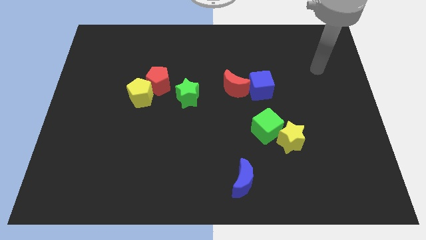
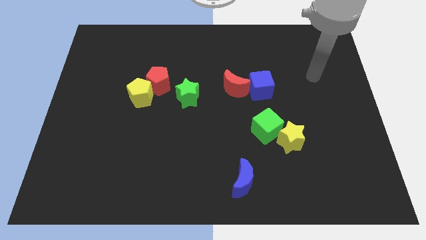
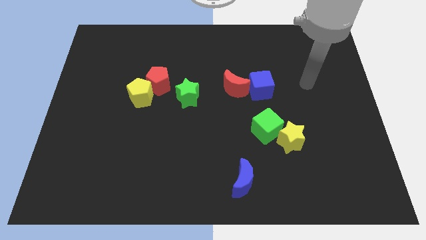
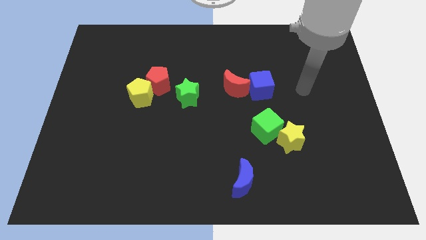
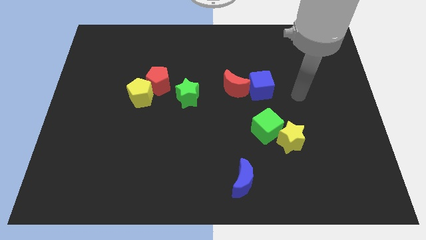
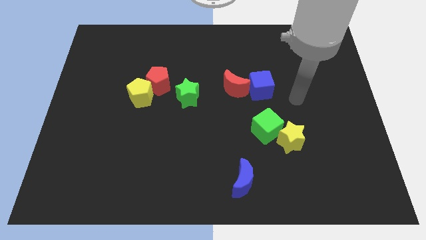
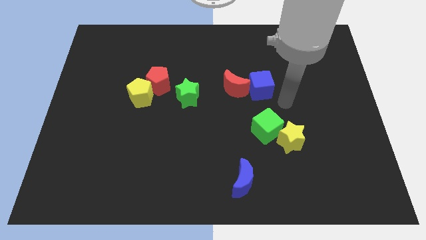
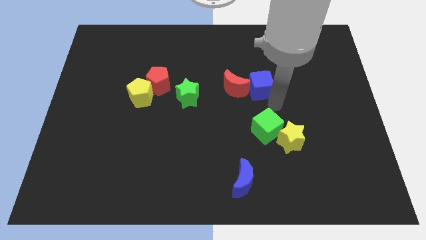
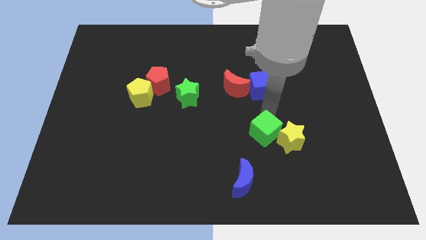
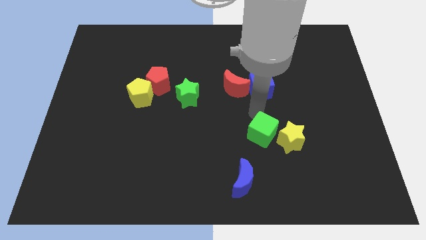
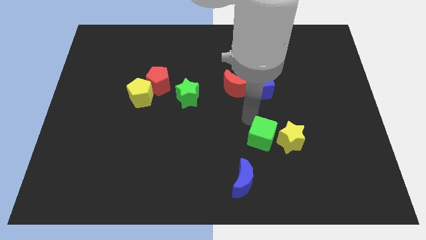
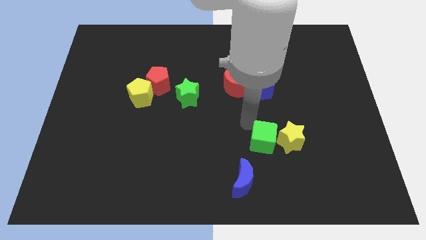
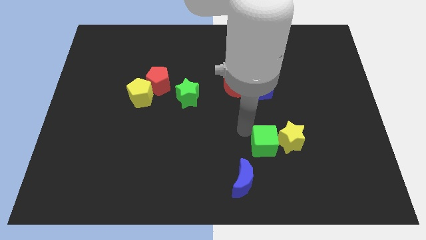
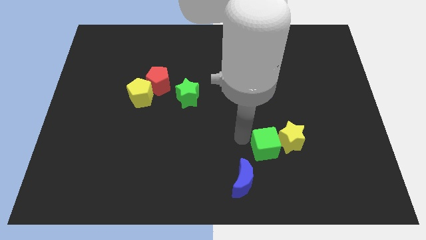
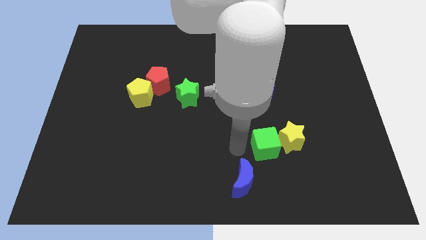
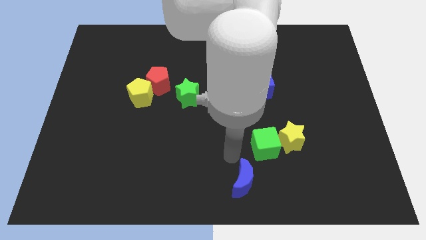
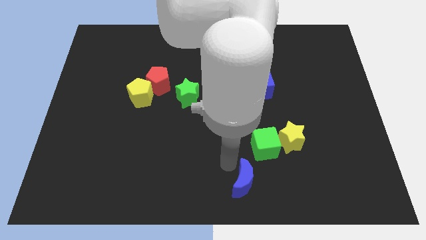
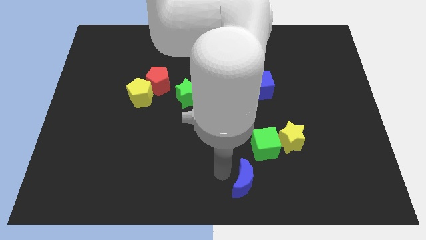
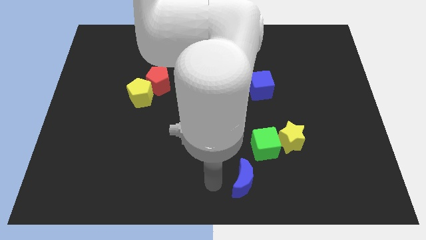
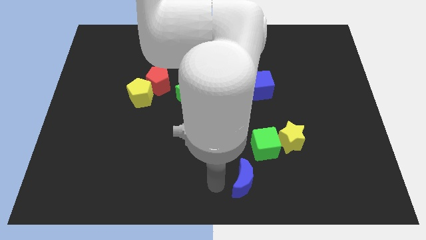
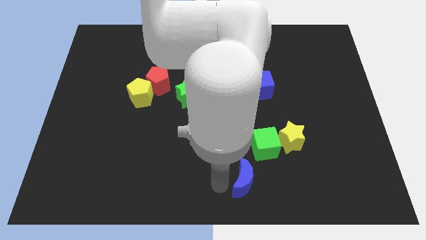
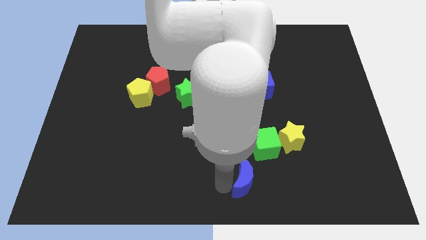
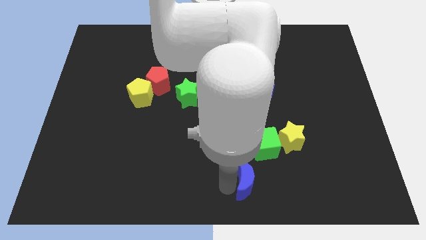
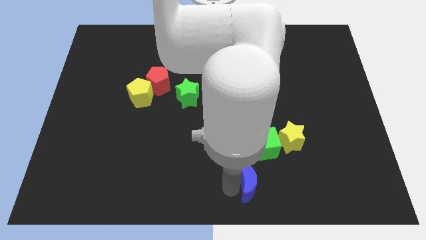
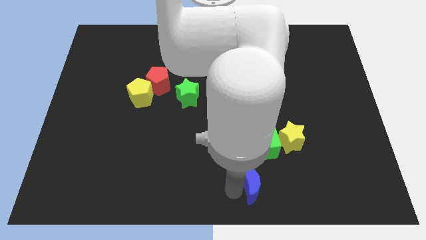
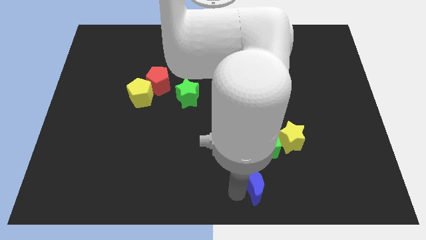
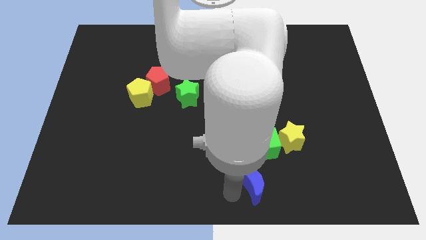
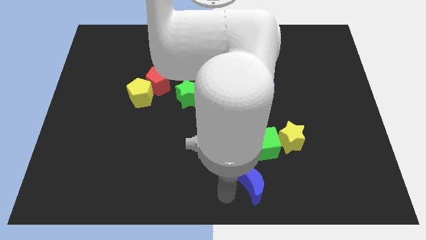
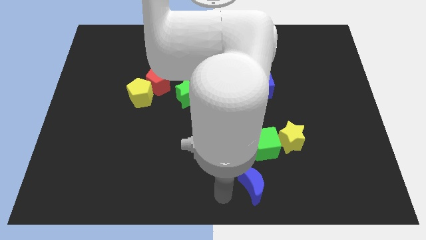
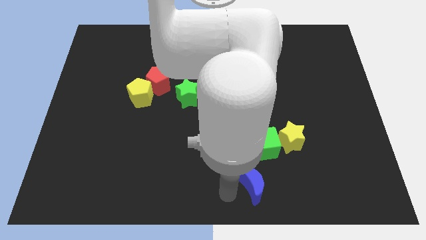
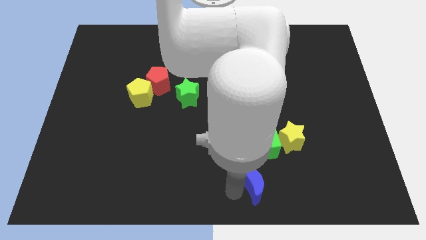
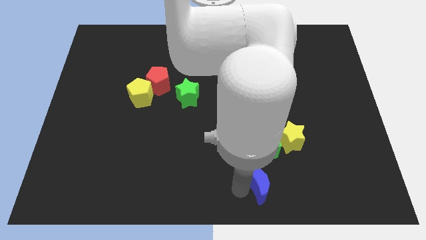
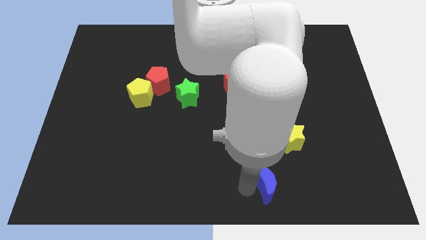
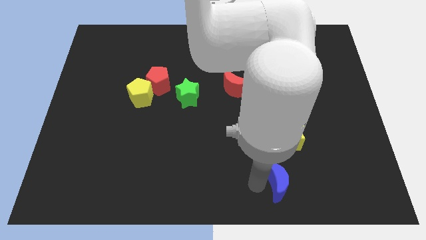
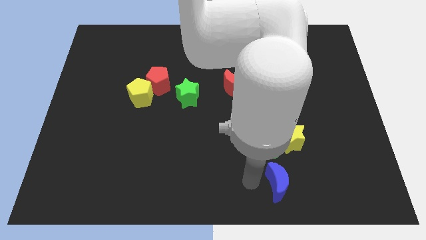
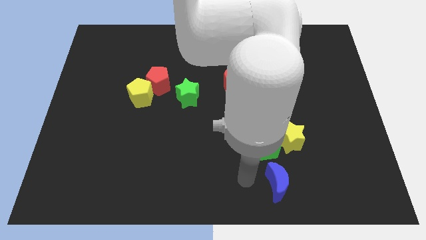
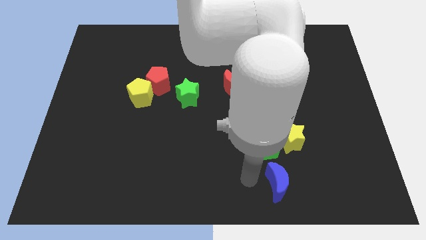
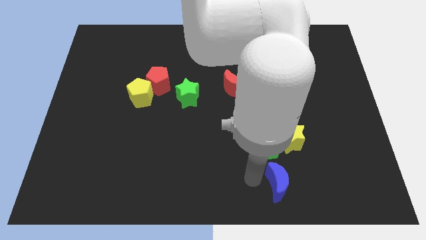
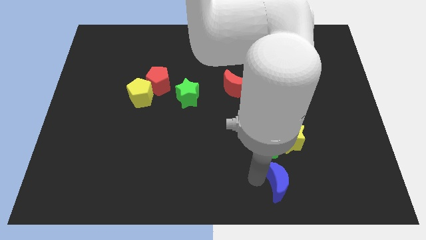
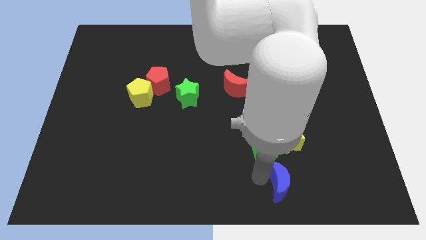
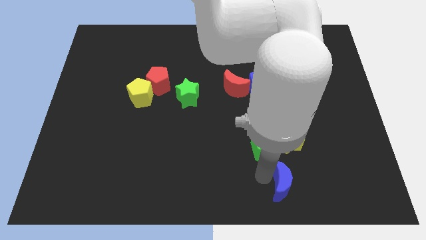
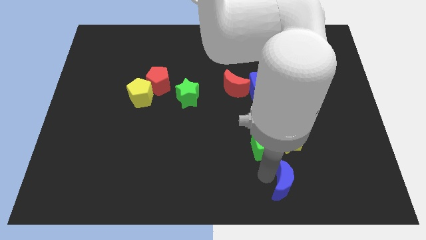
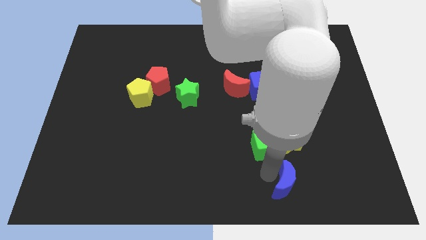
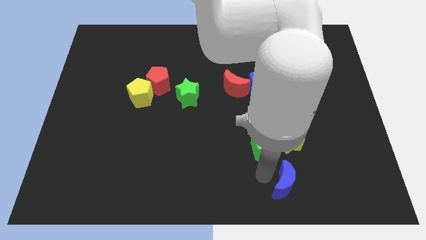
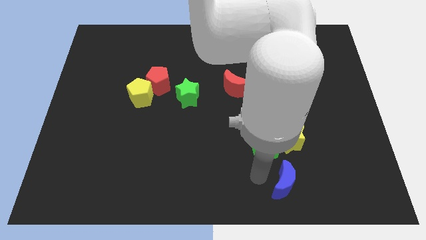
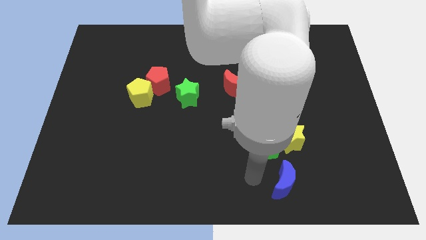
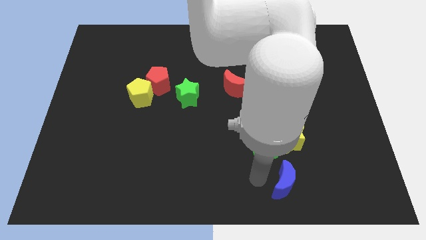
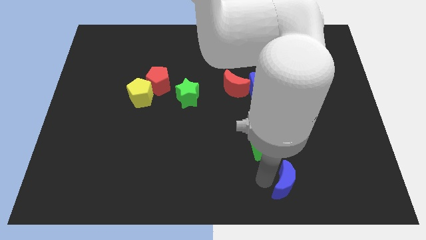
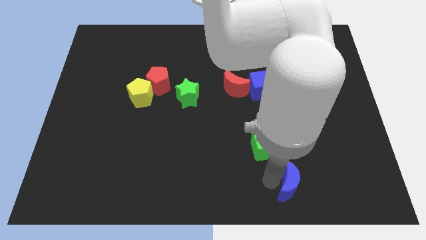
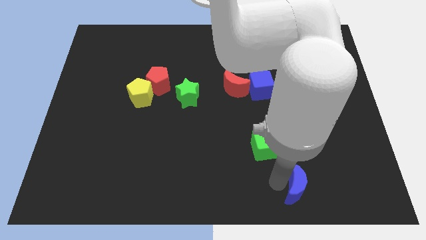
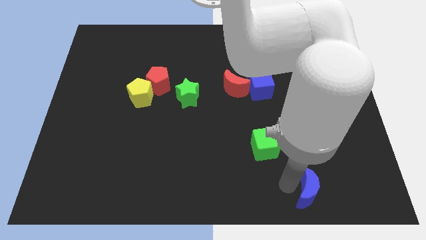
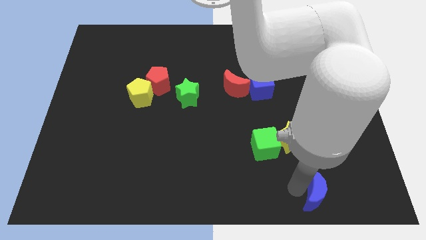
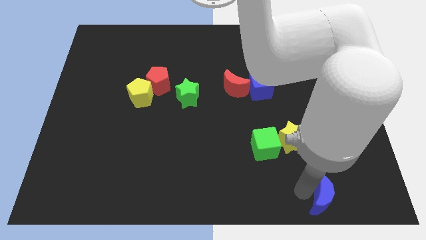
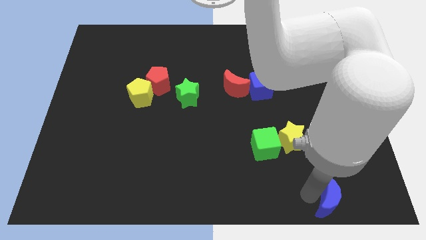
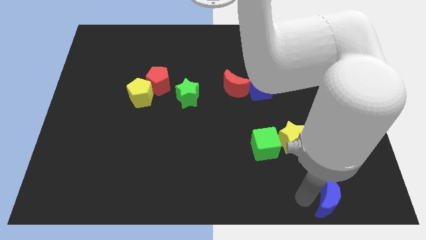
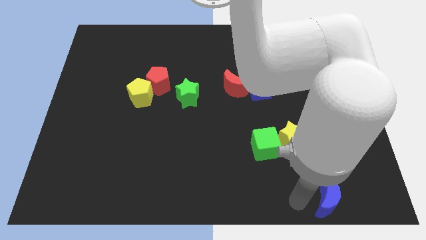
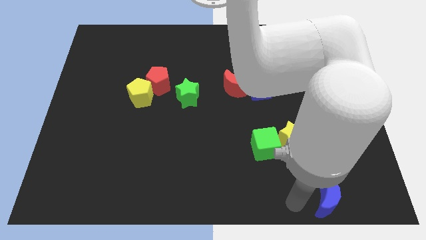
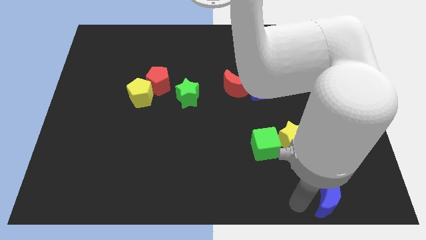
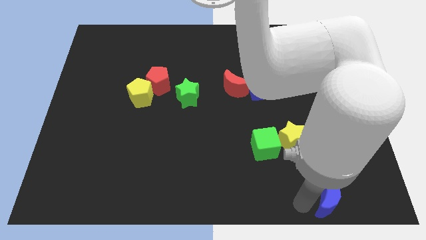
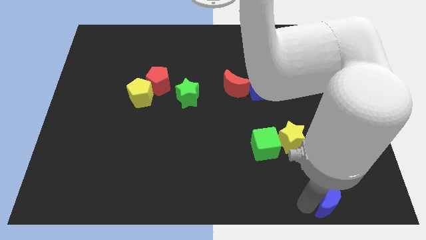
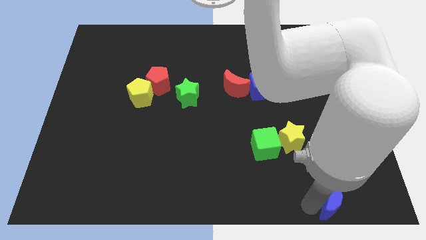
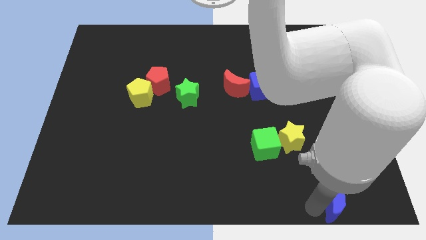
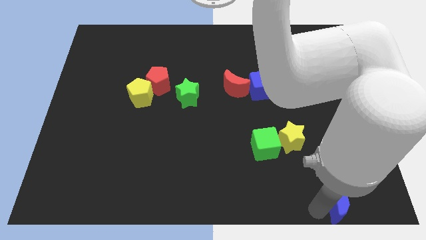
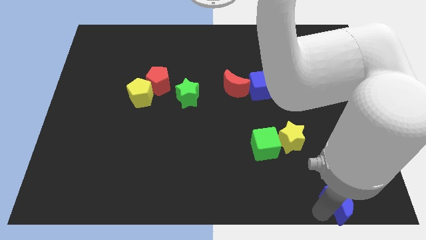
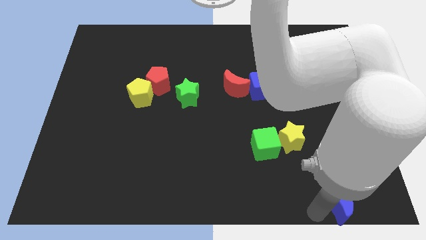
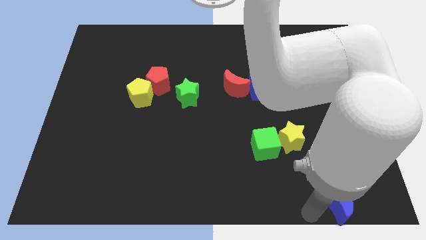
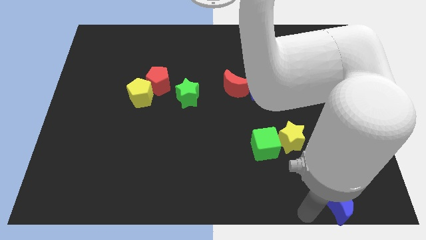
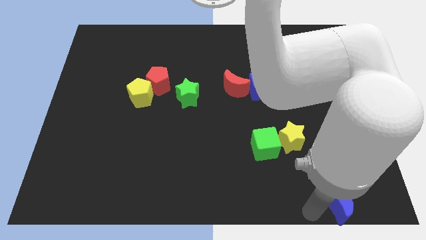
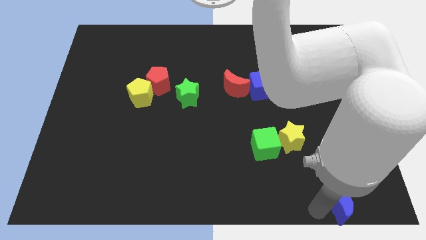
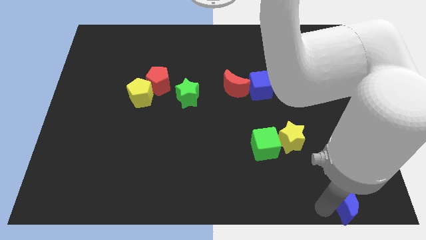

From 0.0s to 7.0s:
move the blue moon to the bottom right corner
